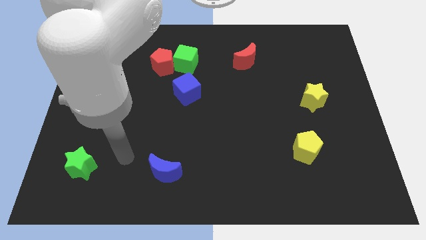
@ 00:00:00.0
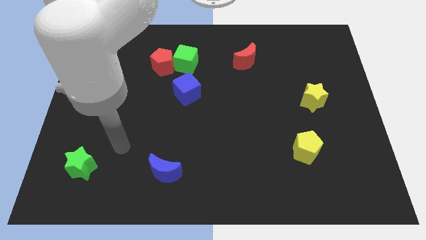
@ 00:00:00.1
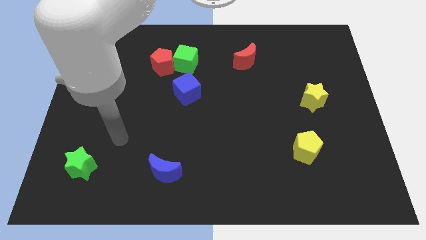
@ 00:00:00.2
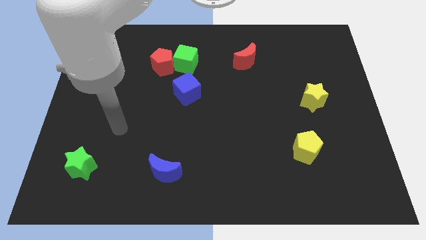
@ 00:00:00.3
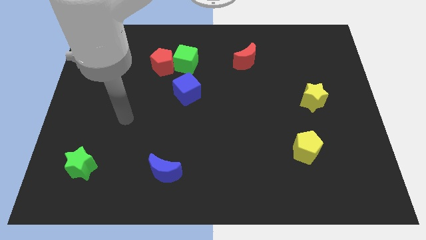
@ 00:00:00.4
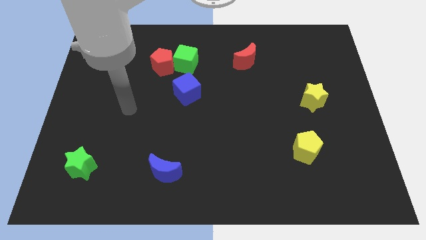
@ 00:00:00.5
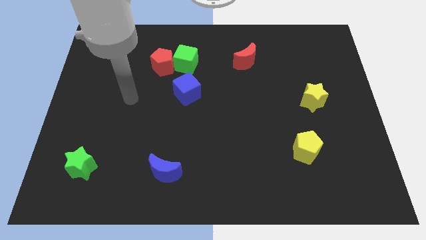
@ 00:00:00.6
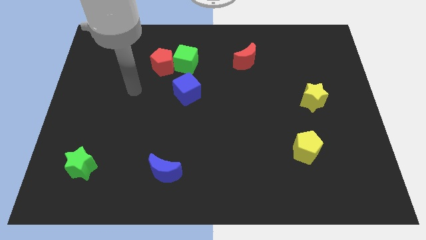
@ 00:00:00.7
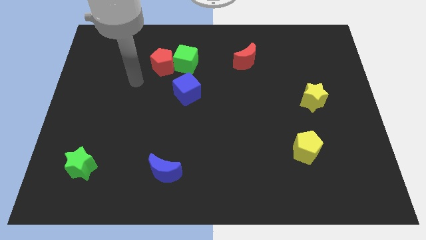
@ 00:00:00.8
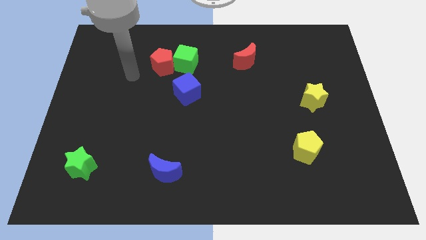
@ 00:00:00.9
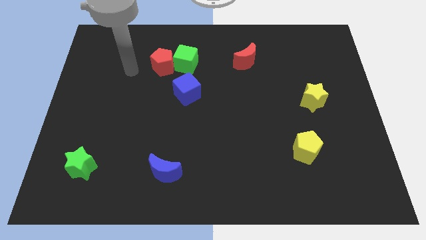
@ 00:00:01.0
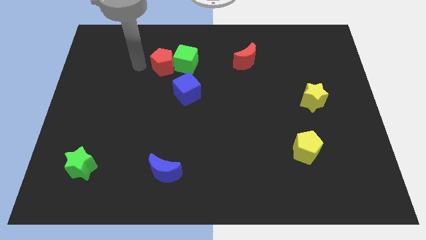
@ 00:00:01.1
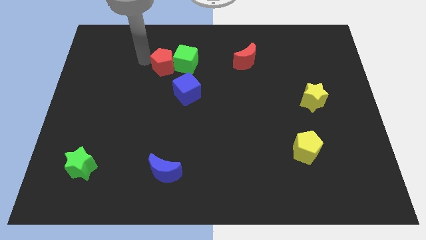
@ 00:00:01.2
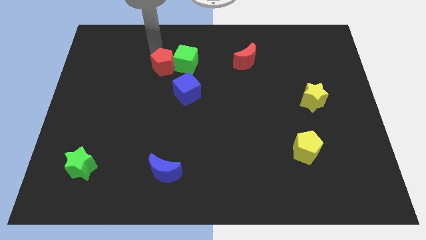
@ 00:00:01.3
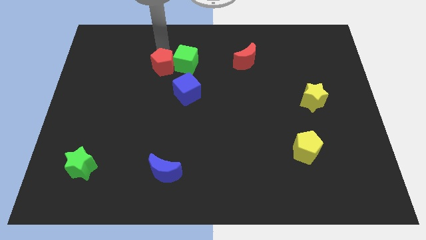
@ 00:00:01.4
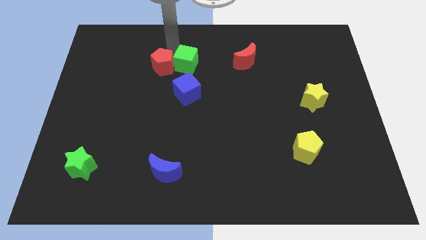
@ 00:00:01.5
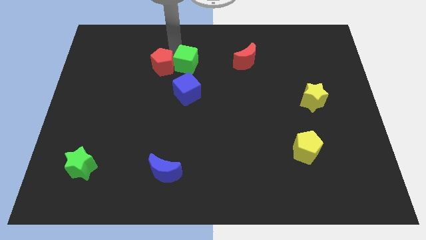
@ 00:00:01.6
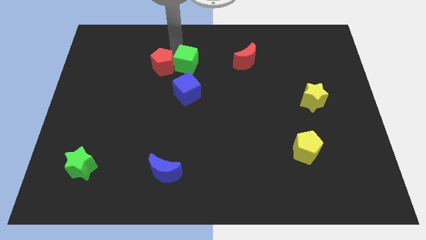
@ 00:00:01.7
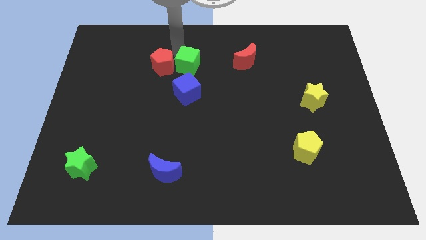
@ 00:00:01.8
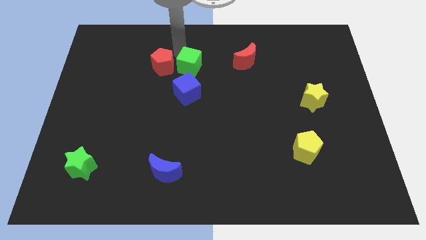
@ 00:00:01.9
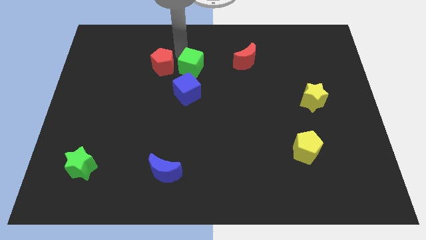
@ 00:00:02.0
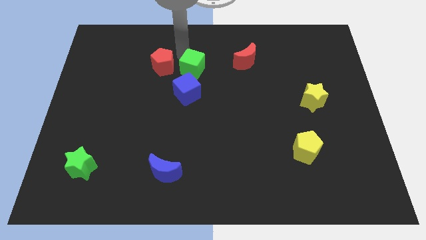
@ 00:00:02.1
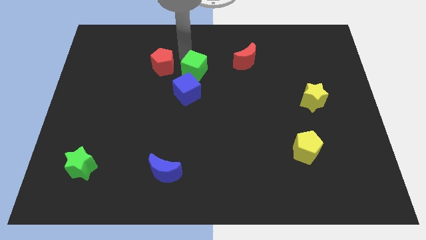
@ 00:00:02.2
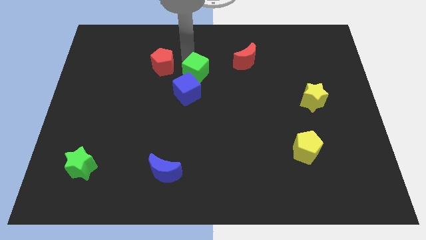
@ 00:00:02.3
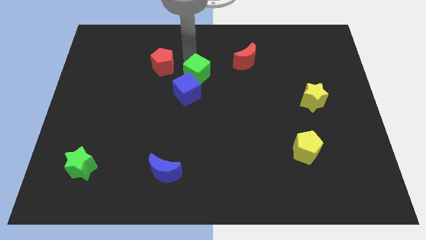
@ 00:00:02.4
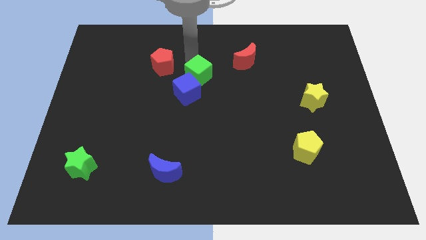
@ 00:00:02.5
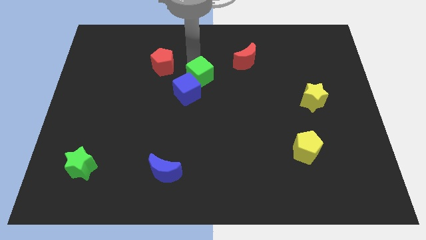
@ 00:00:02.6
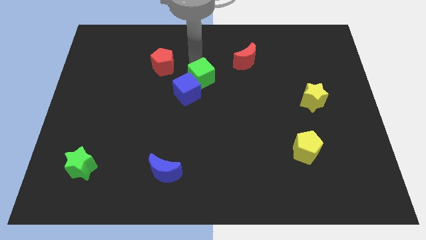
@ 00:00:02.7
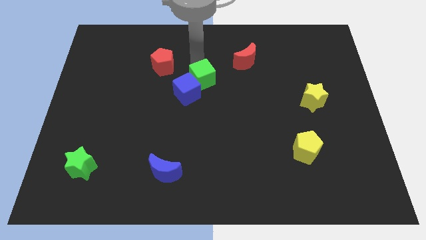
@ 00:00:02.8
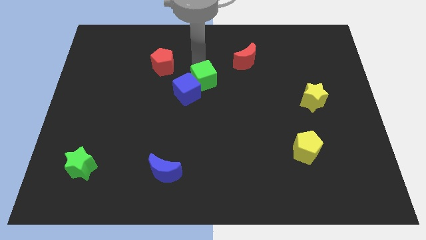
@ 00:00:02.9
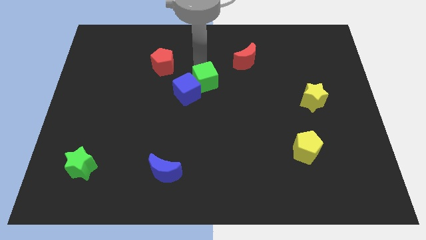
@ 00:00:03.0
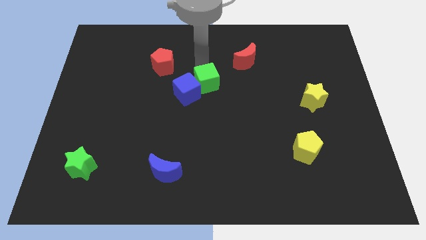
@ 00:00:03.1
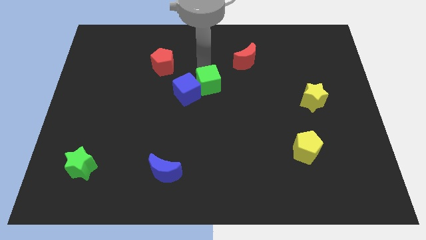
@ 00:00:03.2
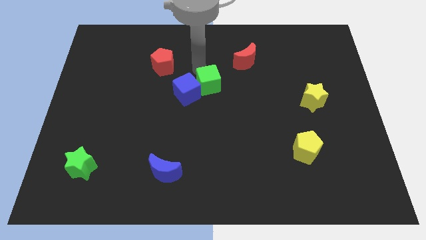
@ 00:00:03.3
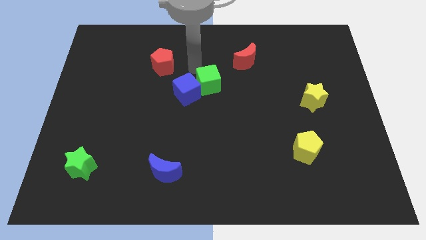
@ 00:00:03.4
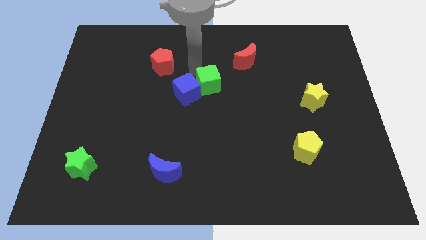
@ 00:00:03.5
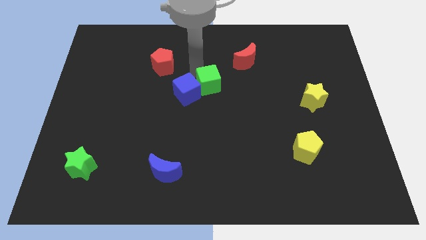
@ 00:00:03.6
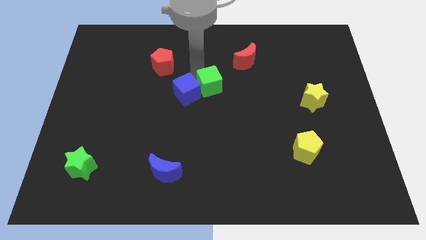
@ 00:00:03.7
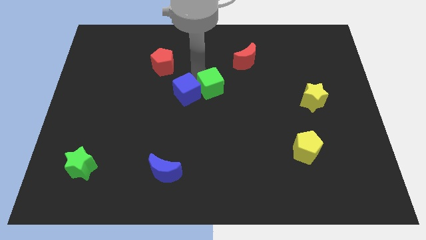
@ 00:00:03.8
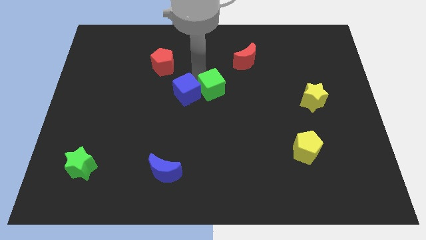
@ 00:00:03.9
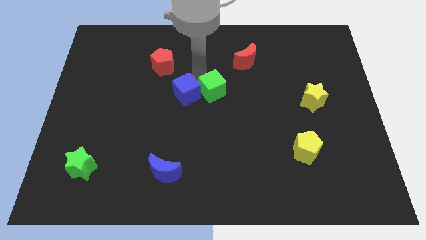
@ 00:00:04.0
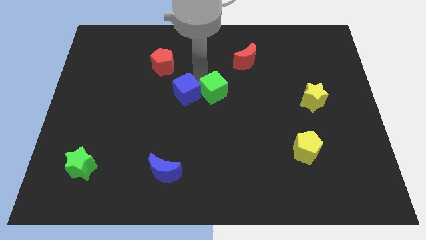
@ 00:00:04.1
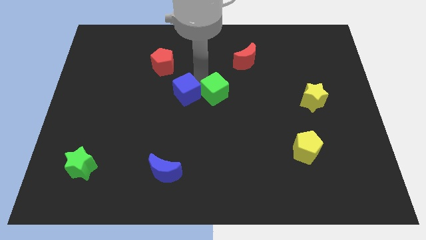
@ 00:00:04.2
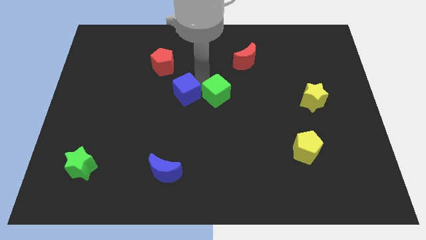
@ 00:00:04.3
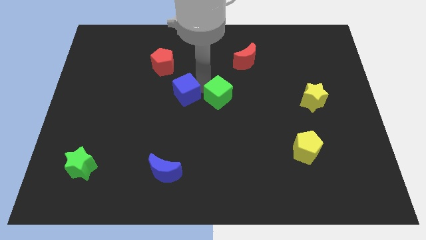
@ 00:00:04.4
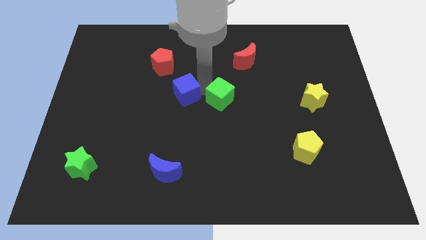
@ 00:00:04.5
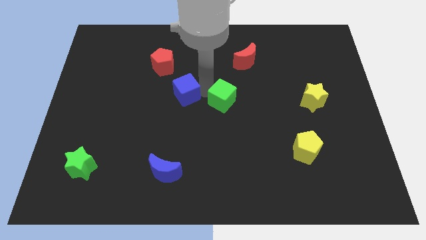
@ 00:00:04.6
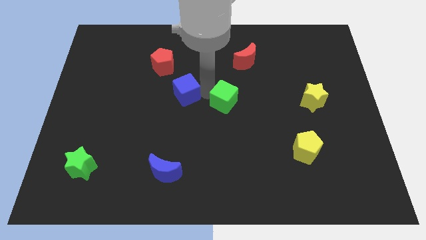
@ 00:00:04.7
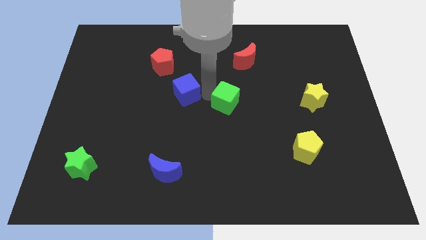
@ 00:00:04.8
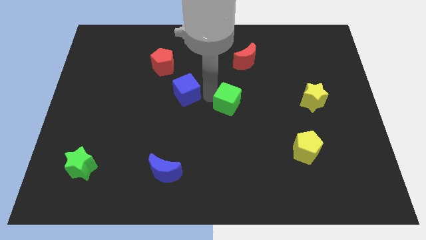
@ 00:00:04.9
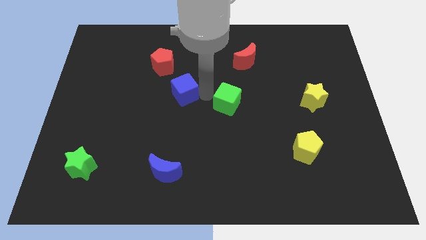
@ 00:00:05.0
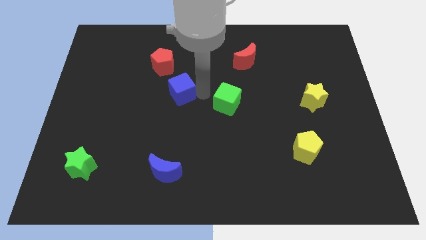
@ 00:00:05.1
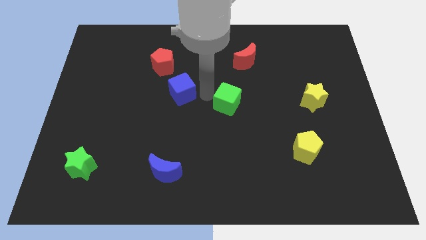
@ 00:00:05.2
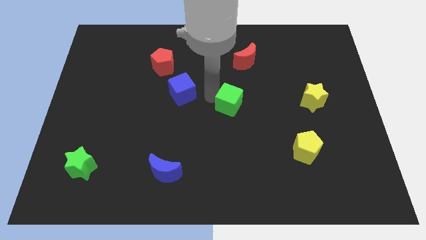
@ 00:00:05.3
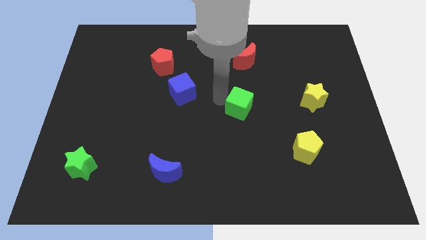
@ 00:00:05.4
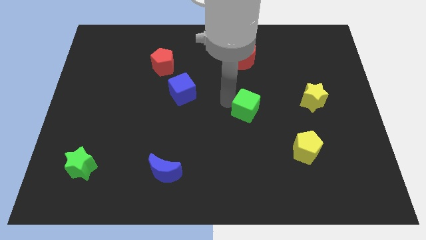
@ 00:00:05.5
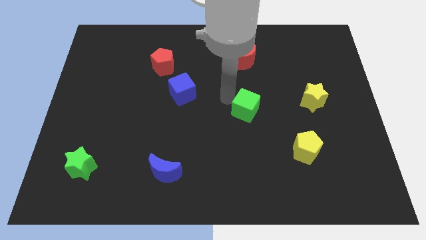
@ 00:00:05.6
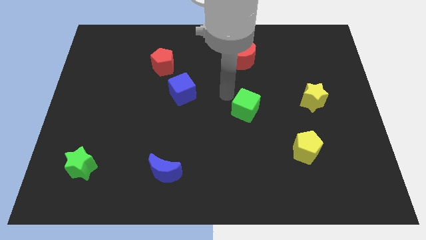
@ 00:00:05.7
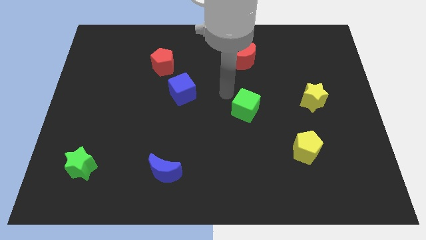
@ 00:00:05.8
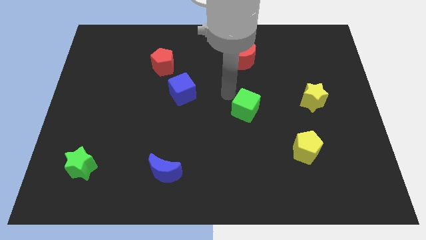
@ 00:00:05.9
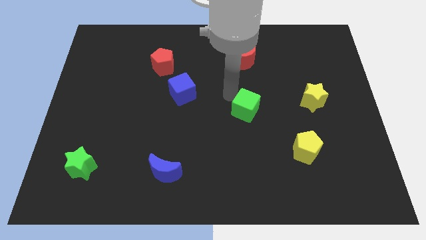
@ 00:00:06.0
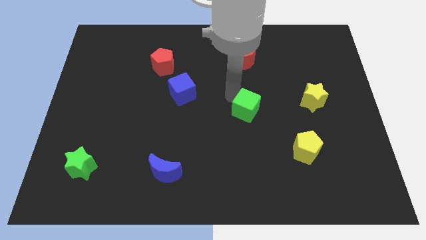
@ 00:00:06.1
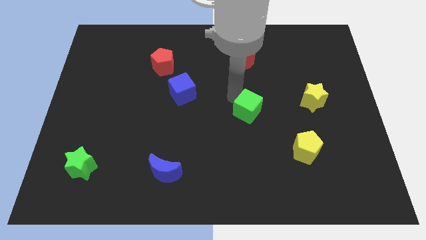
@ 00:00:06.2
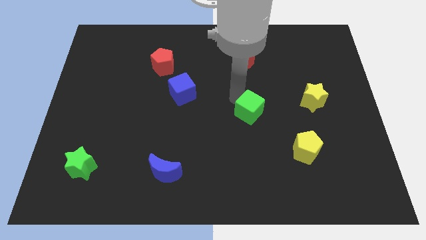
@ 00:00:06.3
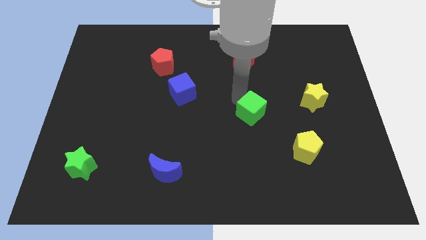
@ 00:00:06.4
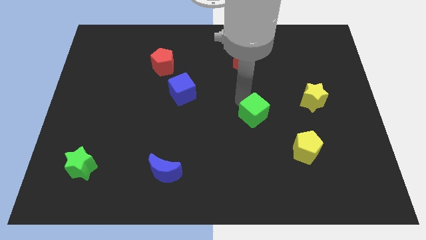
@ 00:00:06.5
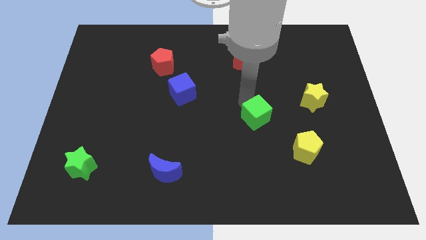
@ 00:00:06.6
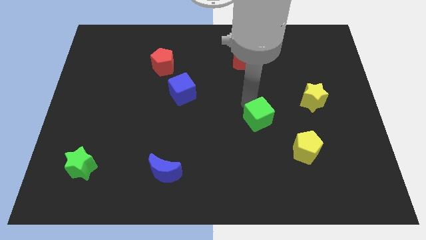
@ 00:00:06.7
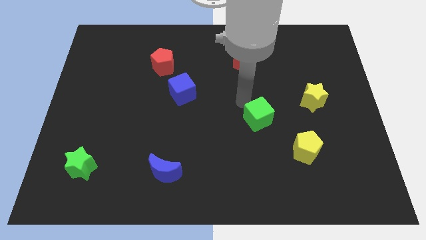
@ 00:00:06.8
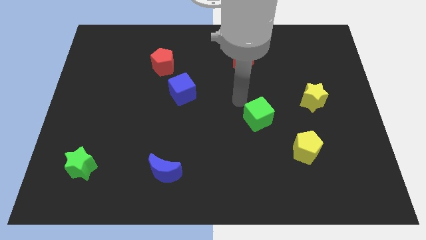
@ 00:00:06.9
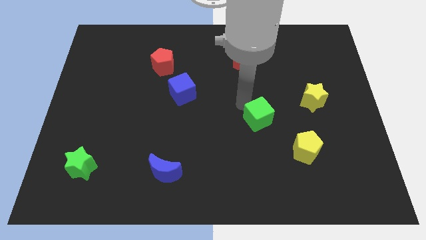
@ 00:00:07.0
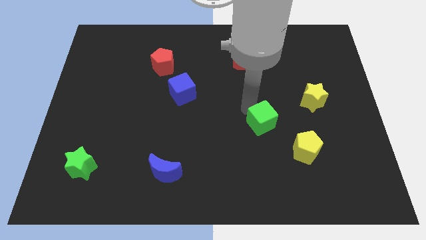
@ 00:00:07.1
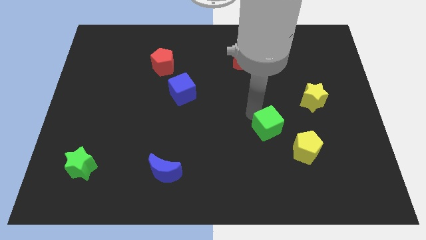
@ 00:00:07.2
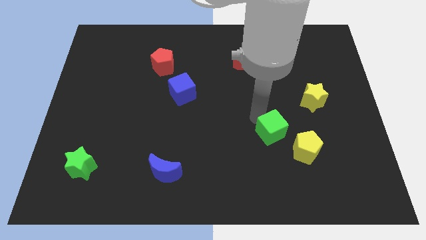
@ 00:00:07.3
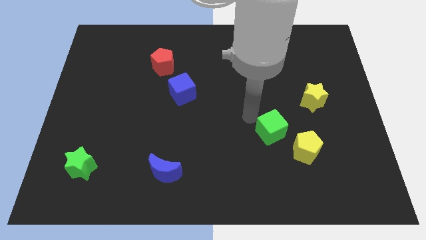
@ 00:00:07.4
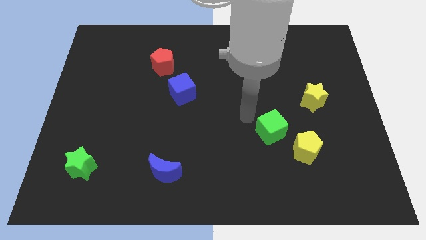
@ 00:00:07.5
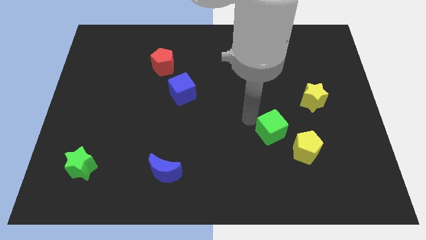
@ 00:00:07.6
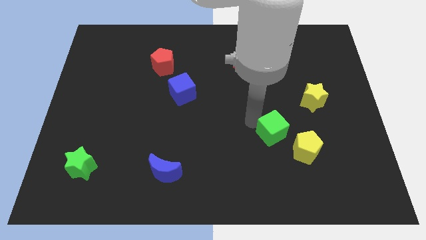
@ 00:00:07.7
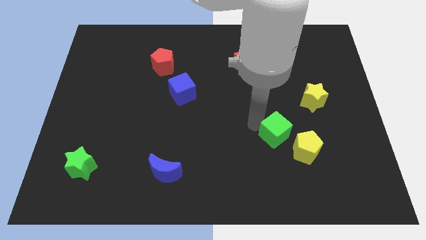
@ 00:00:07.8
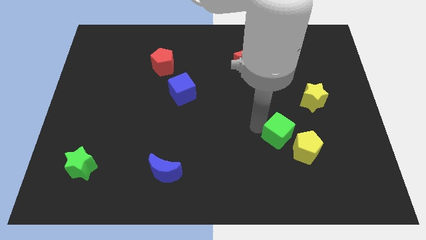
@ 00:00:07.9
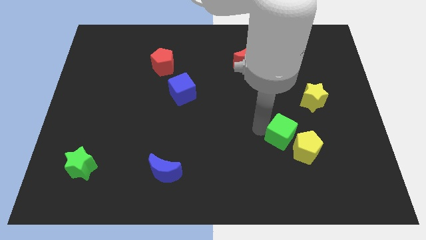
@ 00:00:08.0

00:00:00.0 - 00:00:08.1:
slide the green cube towards the yellow pentagon
